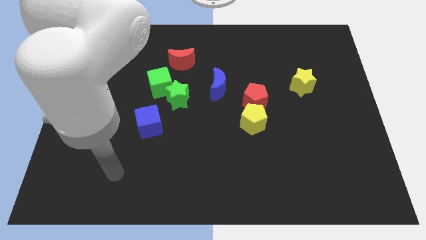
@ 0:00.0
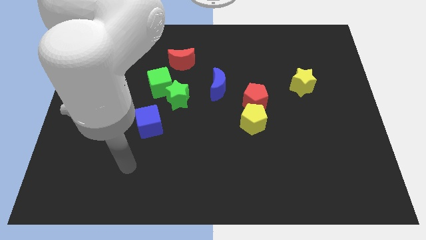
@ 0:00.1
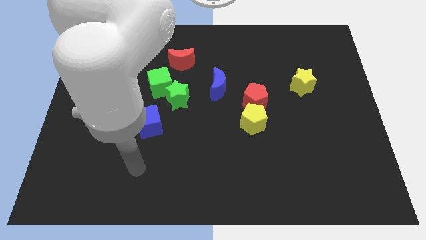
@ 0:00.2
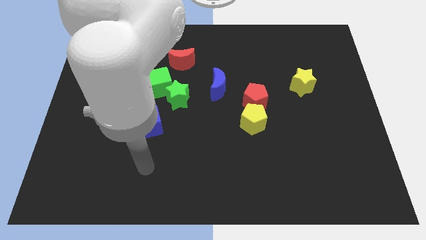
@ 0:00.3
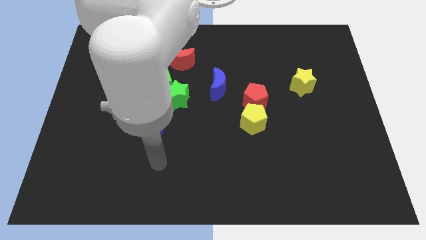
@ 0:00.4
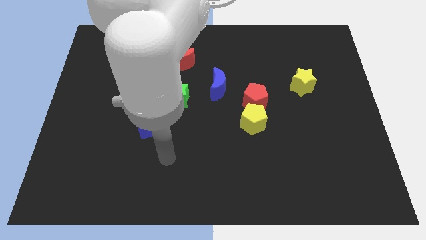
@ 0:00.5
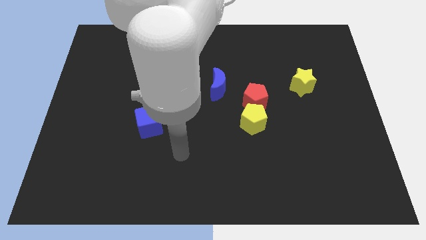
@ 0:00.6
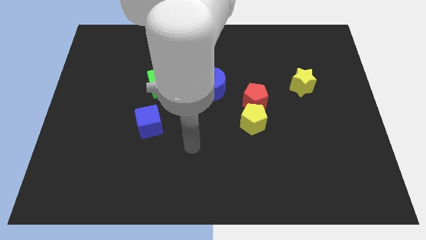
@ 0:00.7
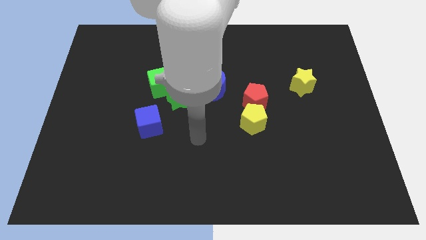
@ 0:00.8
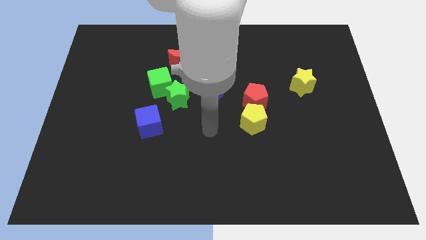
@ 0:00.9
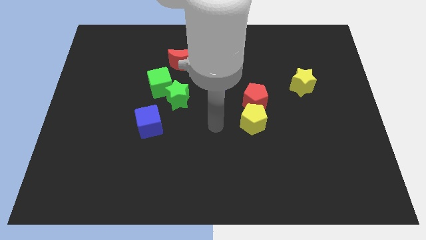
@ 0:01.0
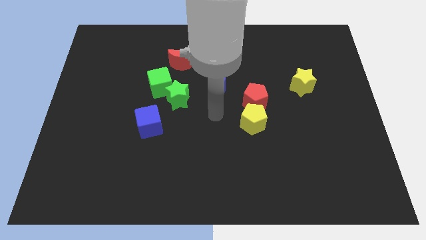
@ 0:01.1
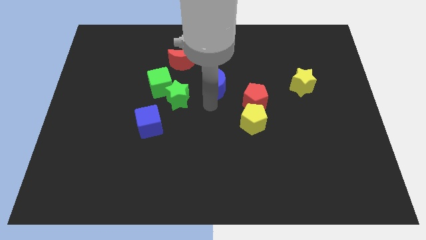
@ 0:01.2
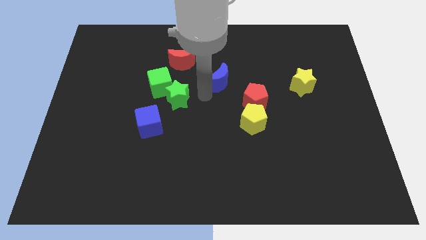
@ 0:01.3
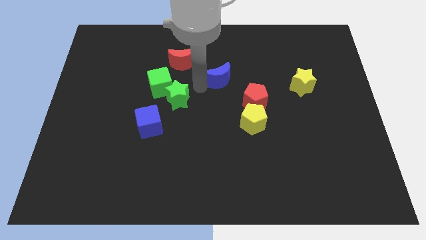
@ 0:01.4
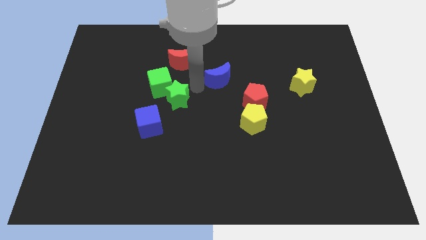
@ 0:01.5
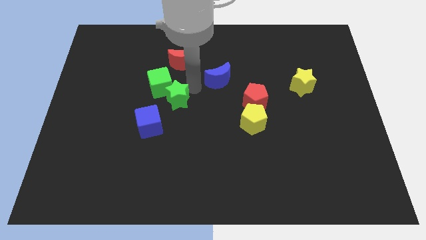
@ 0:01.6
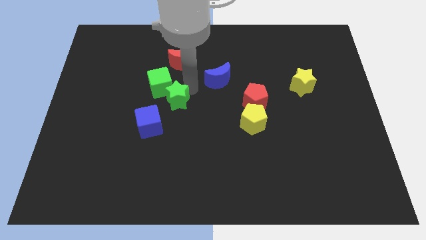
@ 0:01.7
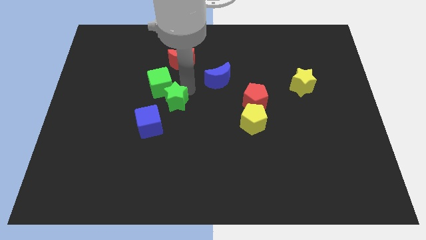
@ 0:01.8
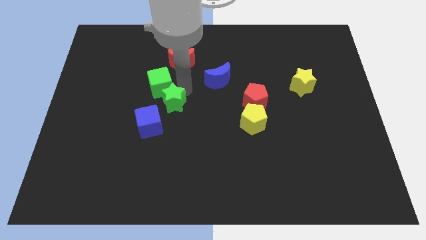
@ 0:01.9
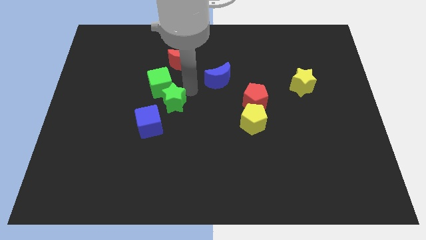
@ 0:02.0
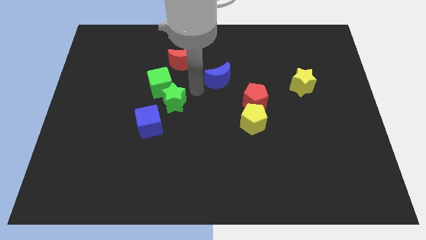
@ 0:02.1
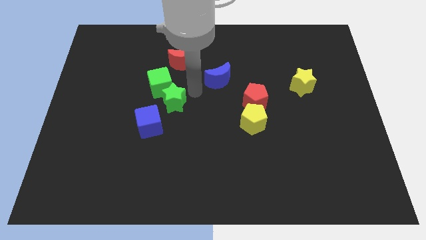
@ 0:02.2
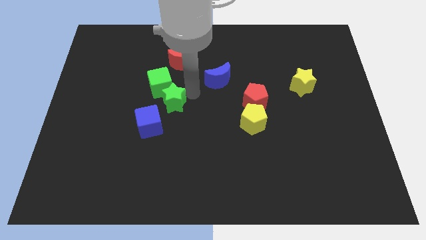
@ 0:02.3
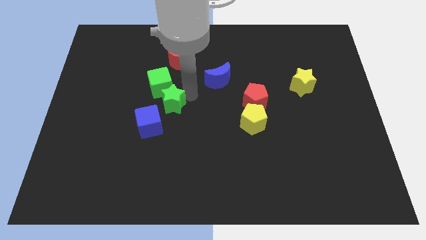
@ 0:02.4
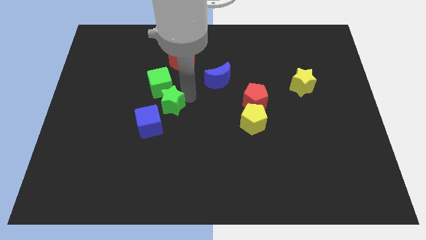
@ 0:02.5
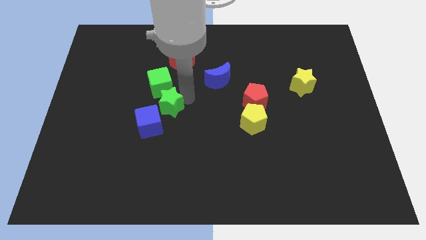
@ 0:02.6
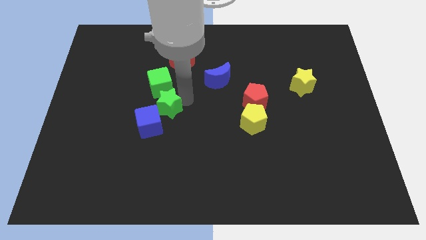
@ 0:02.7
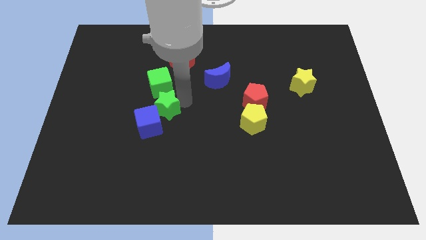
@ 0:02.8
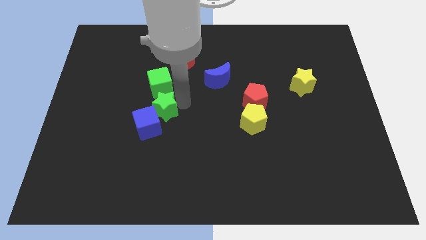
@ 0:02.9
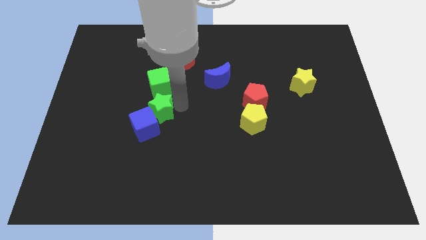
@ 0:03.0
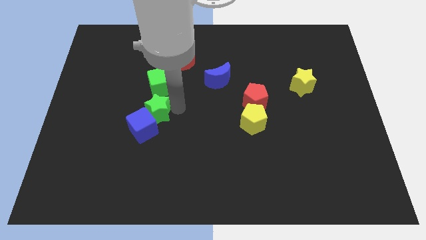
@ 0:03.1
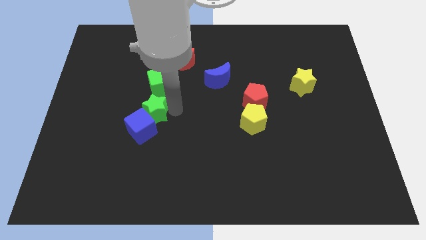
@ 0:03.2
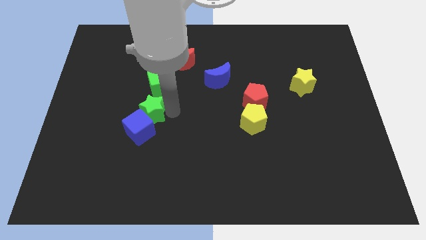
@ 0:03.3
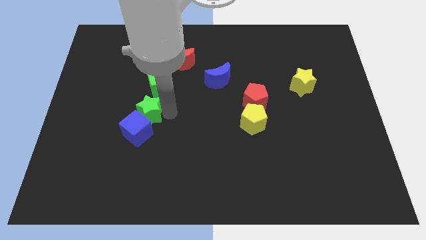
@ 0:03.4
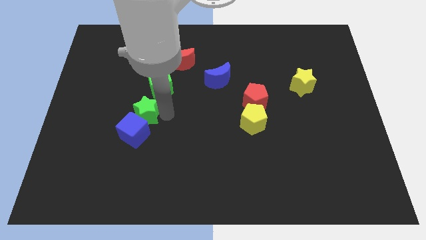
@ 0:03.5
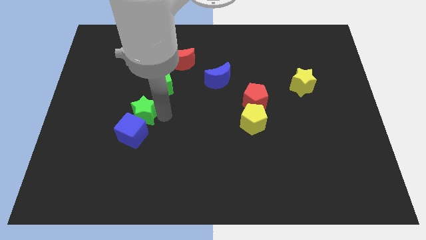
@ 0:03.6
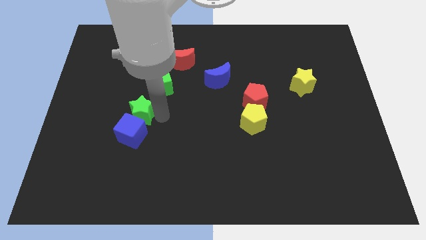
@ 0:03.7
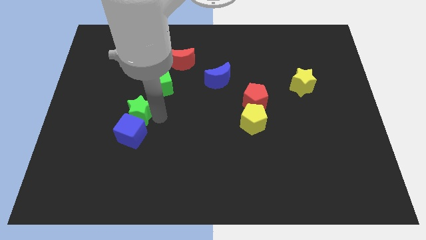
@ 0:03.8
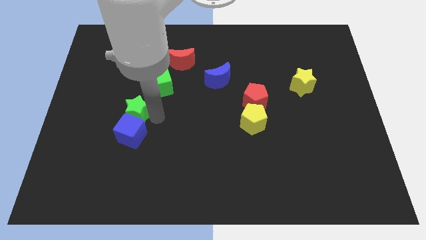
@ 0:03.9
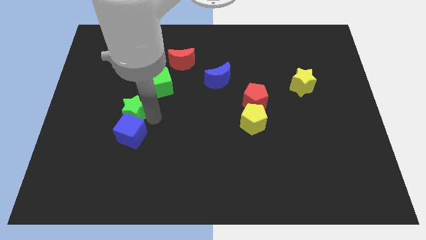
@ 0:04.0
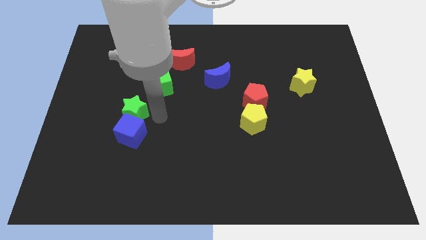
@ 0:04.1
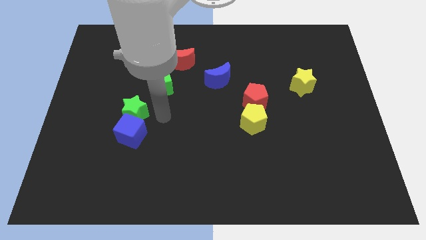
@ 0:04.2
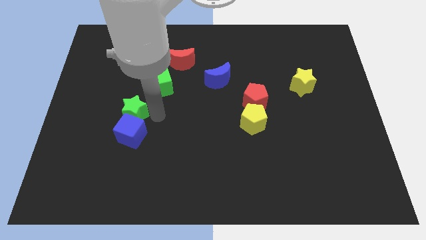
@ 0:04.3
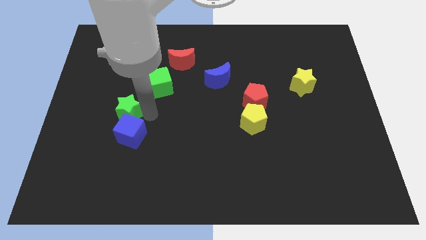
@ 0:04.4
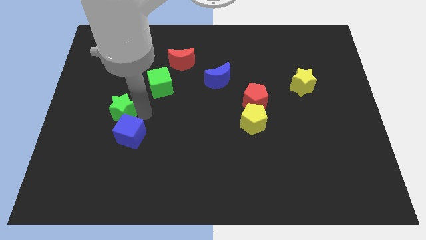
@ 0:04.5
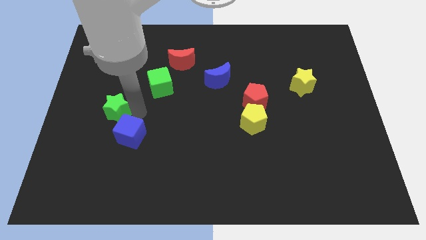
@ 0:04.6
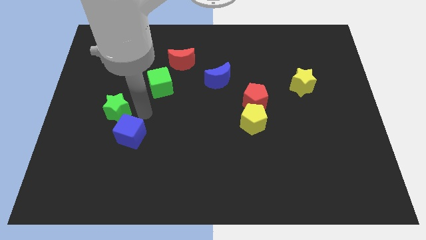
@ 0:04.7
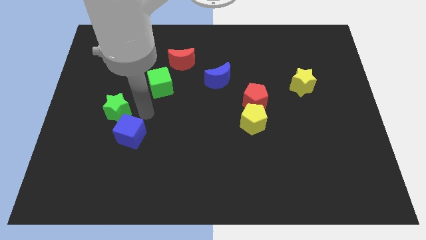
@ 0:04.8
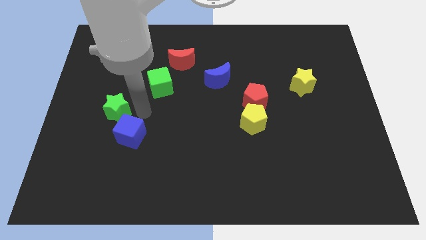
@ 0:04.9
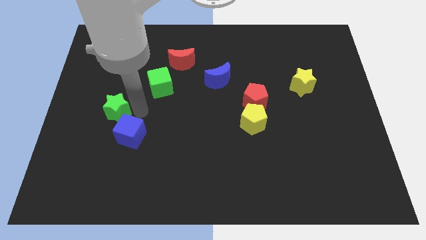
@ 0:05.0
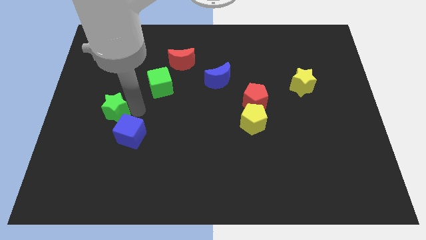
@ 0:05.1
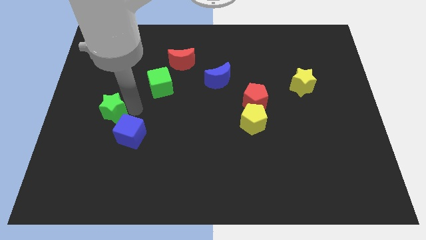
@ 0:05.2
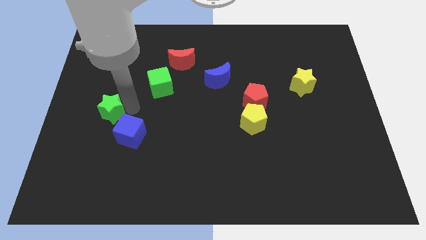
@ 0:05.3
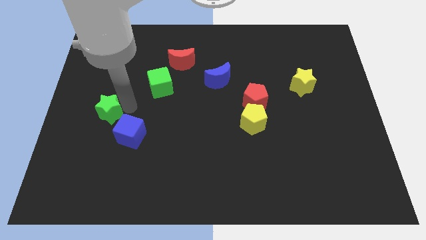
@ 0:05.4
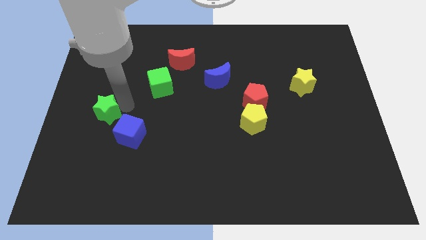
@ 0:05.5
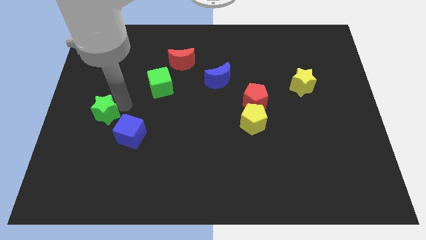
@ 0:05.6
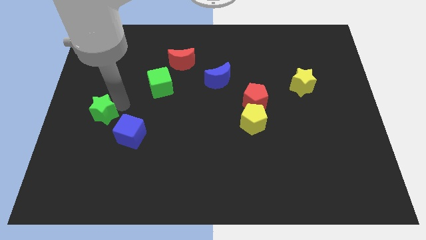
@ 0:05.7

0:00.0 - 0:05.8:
move the green star to the left side of the board

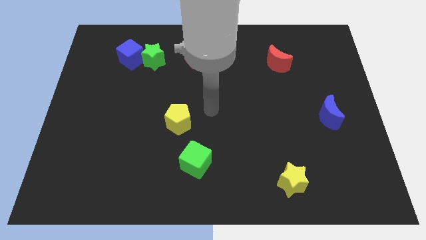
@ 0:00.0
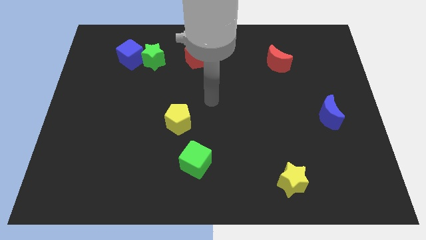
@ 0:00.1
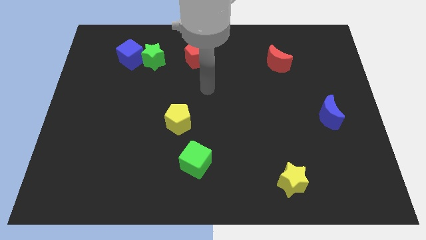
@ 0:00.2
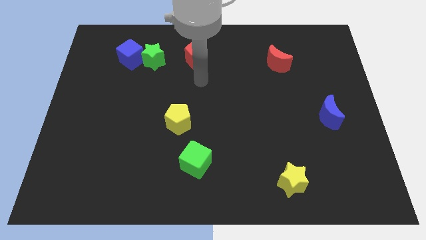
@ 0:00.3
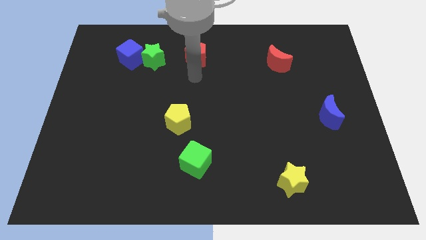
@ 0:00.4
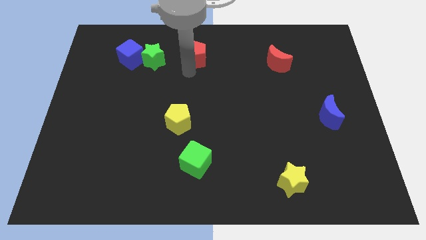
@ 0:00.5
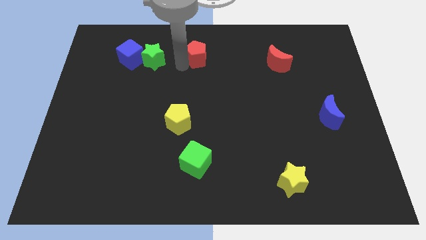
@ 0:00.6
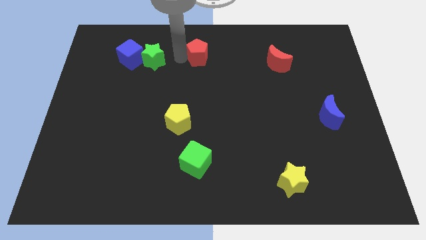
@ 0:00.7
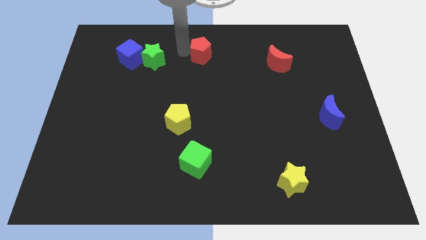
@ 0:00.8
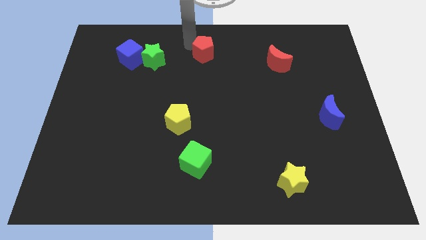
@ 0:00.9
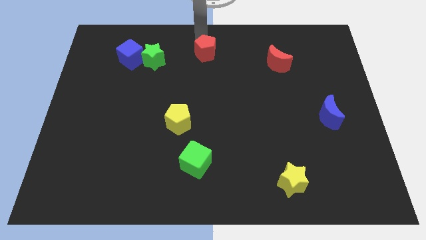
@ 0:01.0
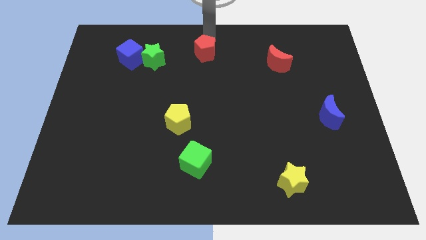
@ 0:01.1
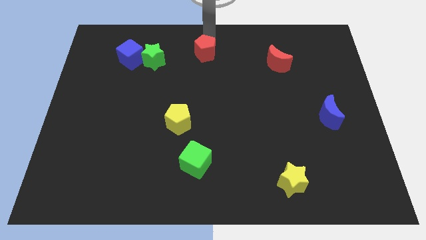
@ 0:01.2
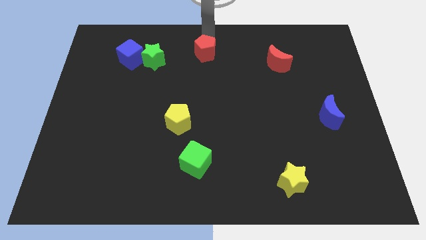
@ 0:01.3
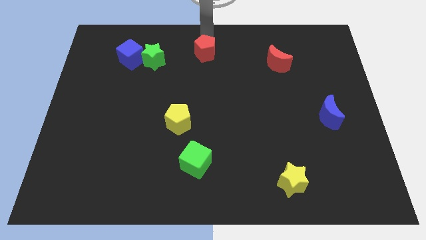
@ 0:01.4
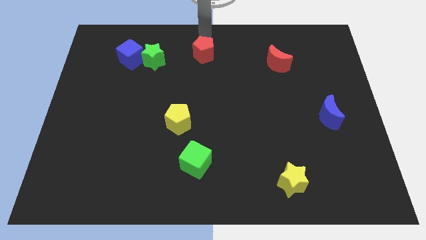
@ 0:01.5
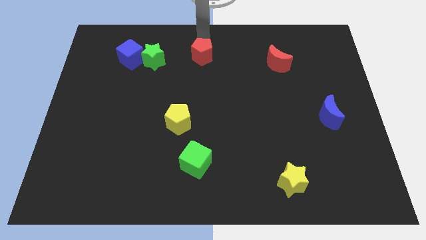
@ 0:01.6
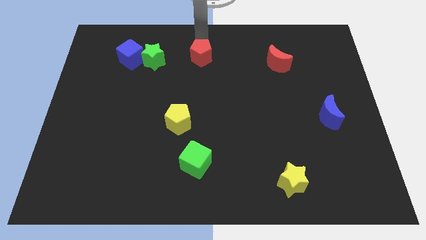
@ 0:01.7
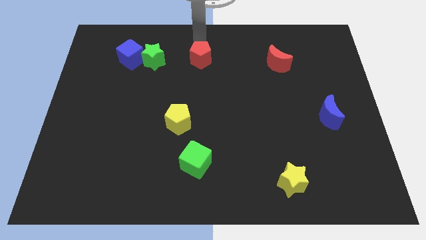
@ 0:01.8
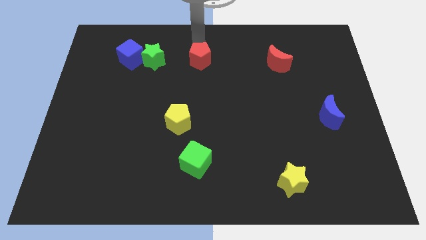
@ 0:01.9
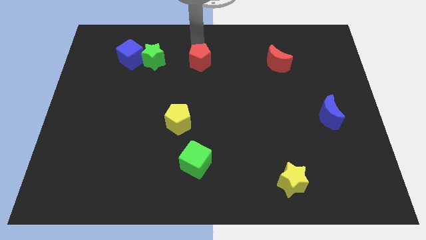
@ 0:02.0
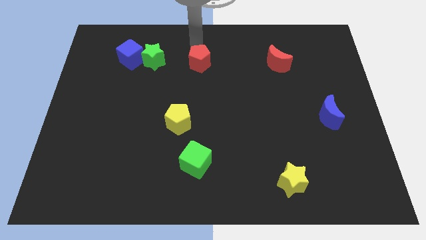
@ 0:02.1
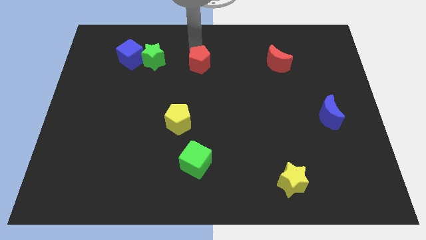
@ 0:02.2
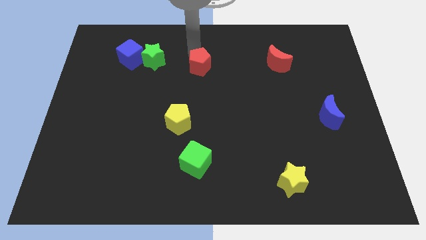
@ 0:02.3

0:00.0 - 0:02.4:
slide the red pentagon to the center
